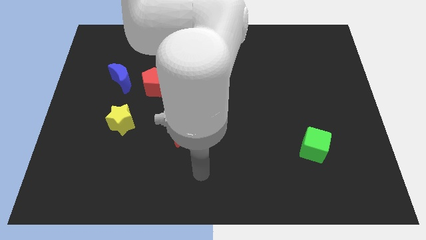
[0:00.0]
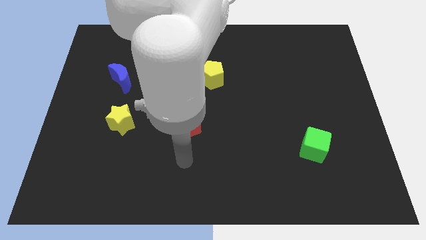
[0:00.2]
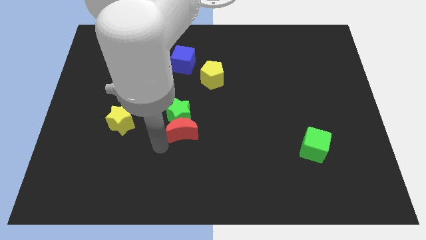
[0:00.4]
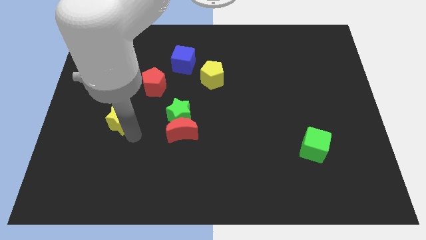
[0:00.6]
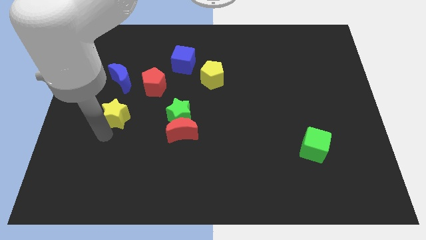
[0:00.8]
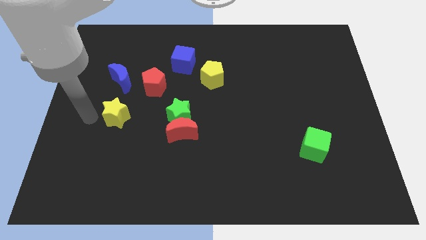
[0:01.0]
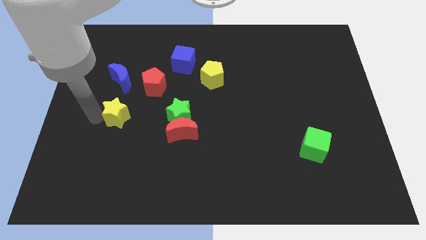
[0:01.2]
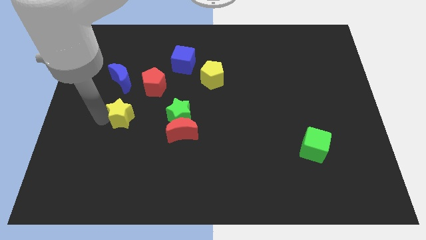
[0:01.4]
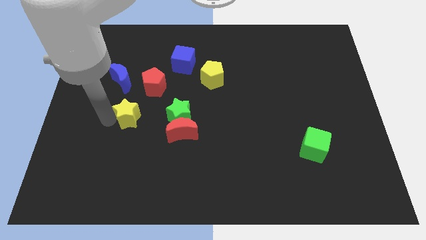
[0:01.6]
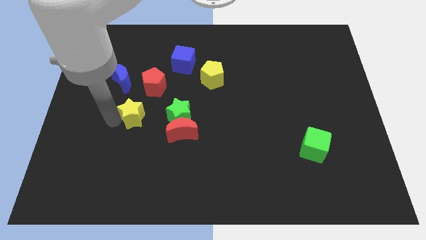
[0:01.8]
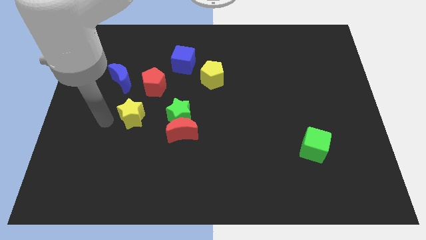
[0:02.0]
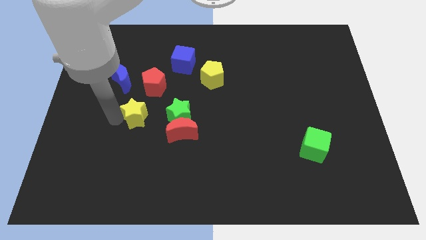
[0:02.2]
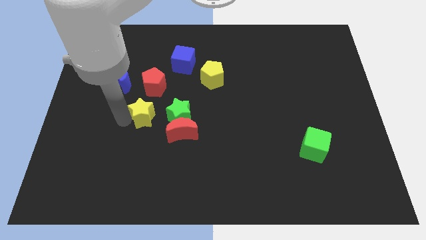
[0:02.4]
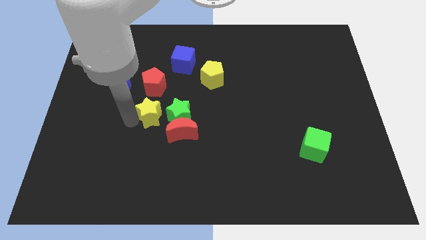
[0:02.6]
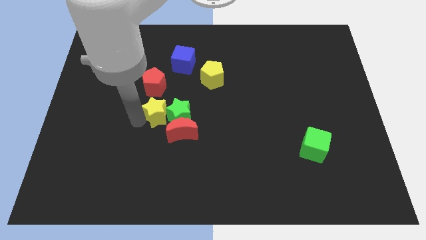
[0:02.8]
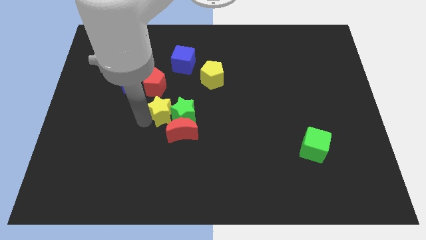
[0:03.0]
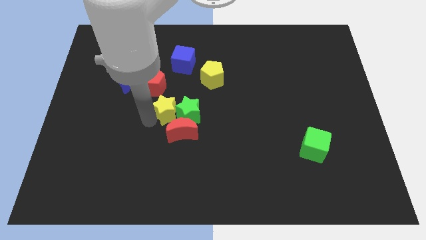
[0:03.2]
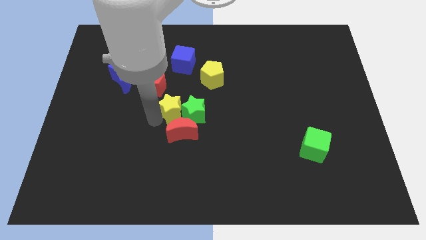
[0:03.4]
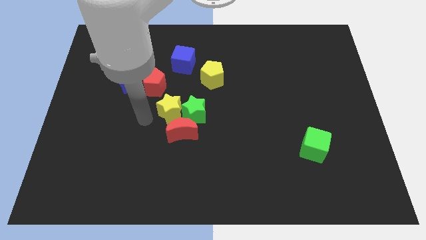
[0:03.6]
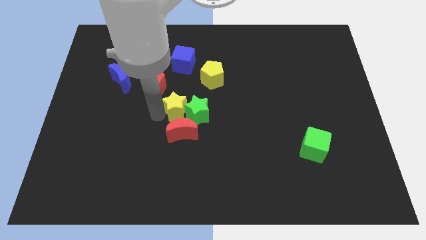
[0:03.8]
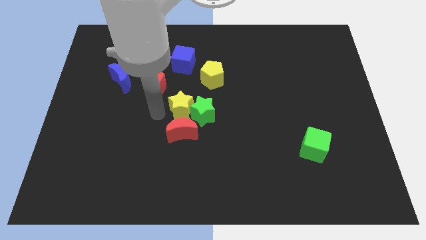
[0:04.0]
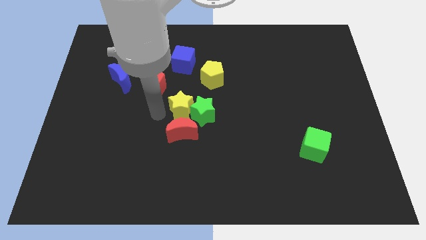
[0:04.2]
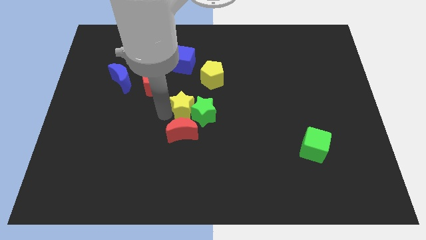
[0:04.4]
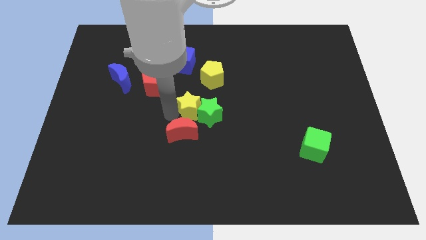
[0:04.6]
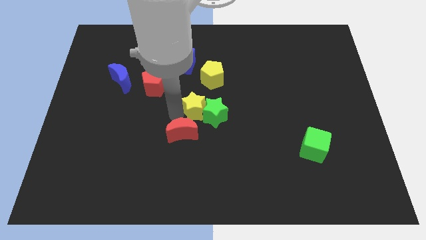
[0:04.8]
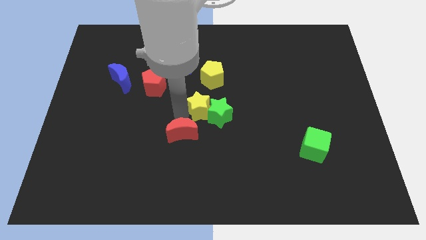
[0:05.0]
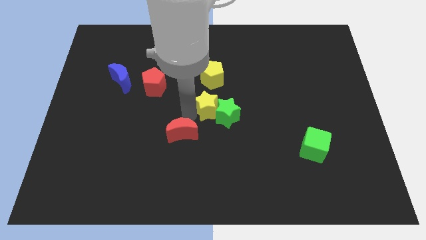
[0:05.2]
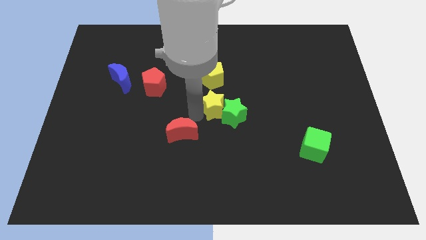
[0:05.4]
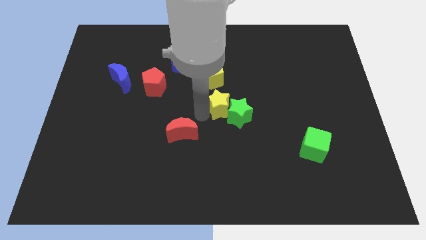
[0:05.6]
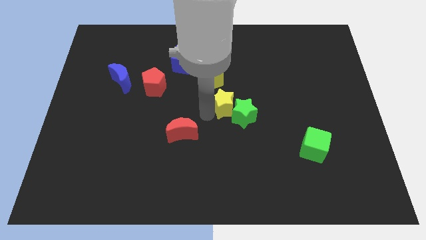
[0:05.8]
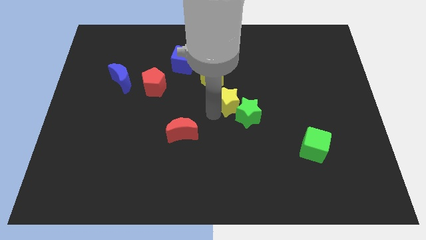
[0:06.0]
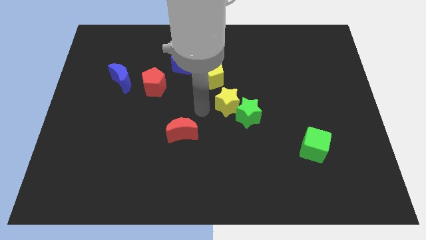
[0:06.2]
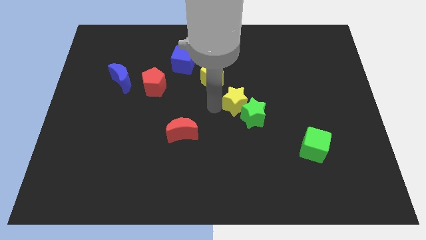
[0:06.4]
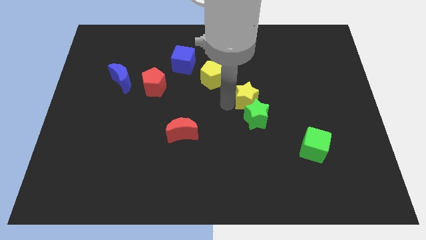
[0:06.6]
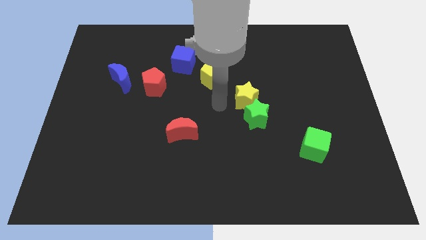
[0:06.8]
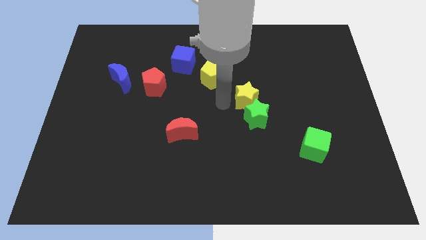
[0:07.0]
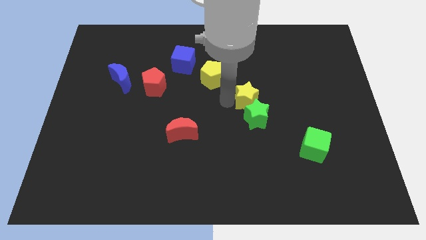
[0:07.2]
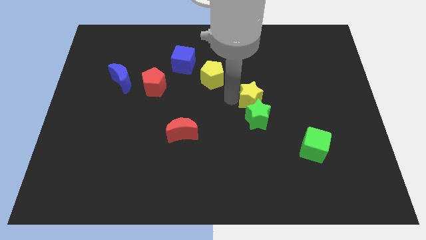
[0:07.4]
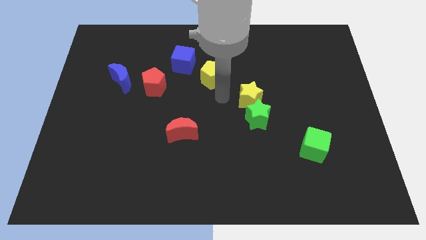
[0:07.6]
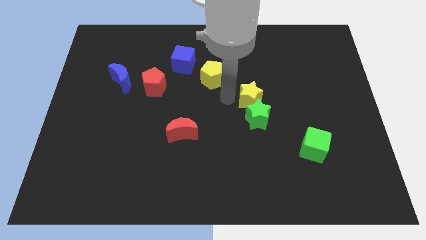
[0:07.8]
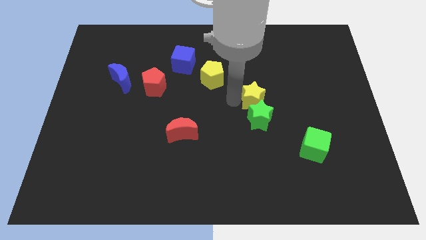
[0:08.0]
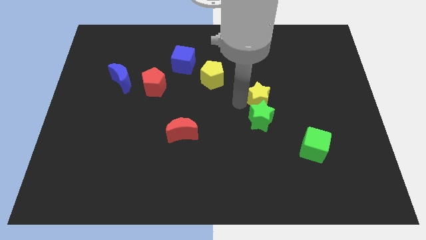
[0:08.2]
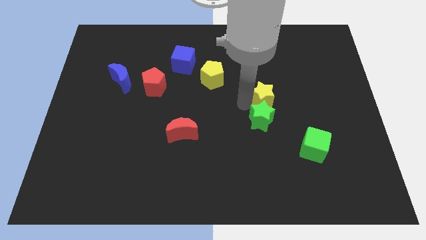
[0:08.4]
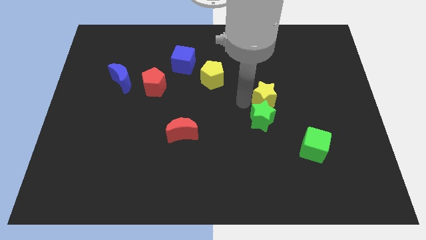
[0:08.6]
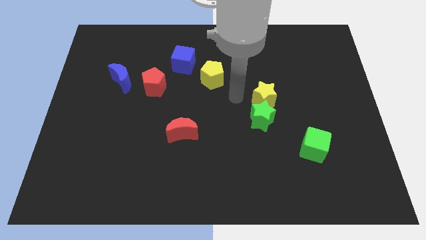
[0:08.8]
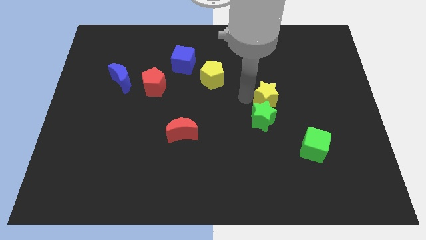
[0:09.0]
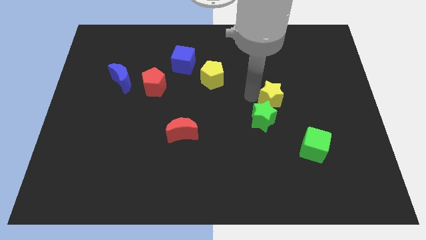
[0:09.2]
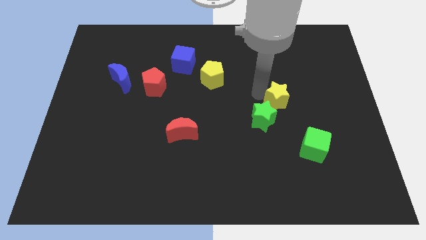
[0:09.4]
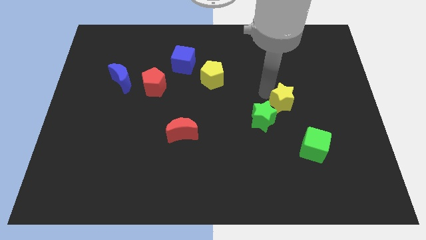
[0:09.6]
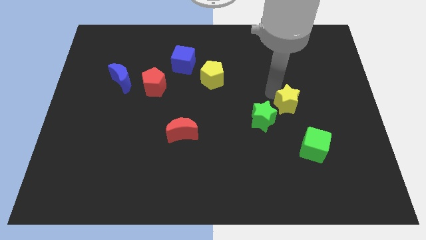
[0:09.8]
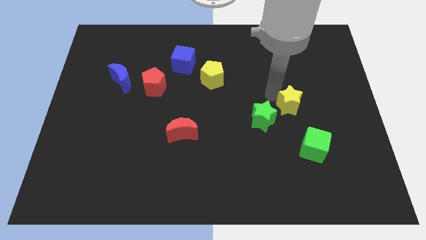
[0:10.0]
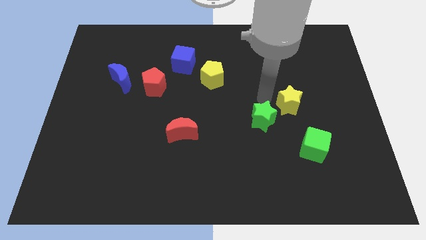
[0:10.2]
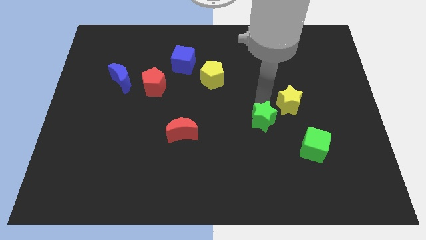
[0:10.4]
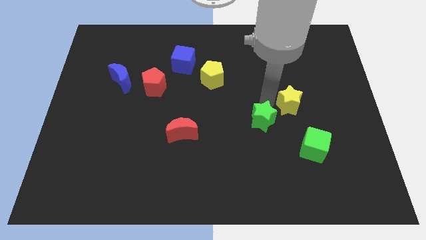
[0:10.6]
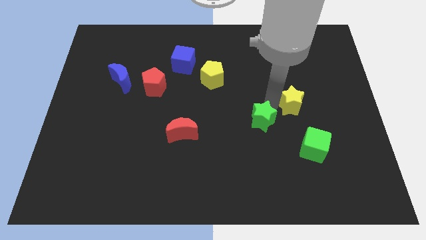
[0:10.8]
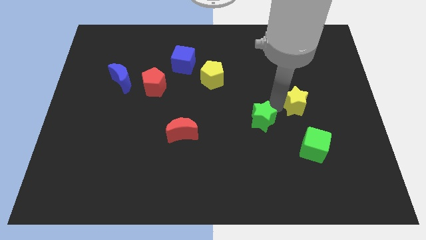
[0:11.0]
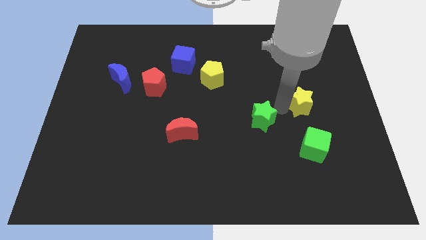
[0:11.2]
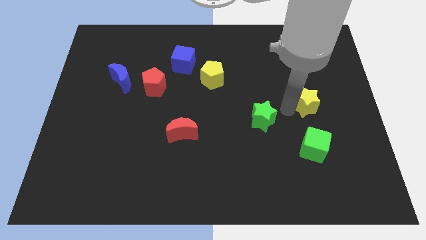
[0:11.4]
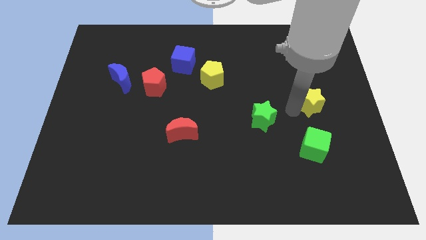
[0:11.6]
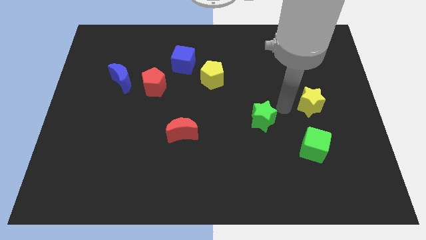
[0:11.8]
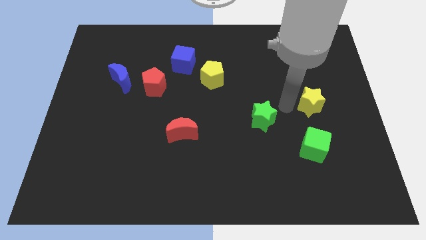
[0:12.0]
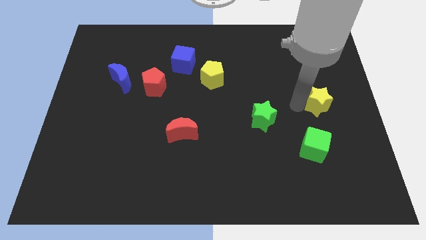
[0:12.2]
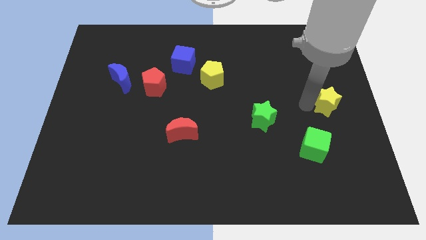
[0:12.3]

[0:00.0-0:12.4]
move the yellow star to the center right

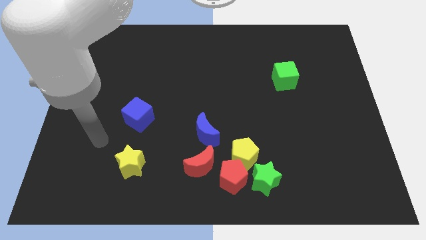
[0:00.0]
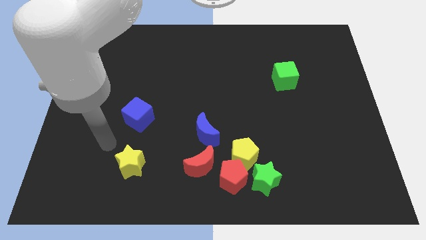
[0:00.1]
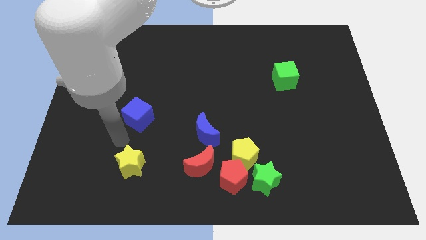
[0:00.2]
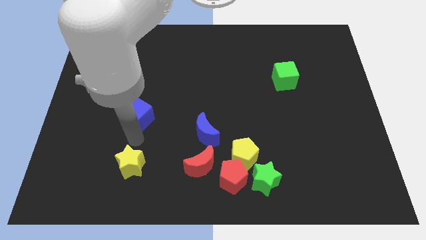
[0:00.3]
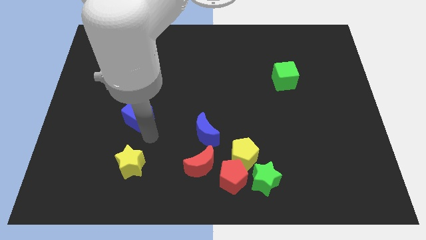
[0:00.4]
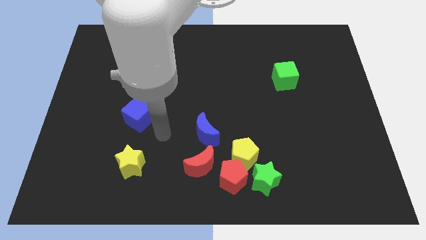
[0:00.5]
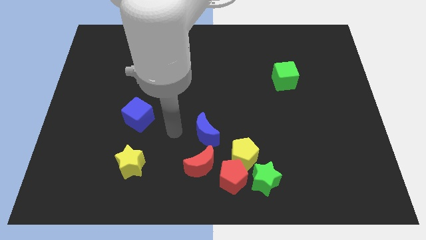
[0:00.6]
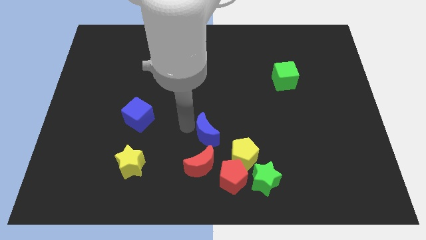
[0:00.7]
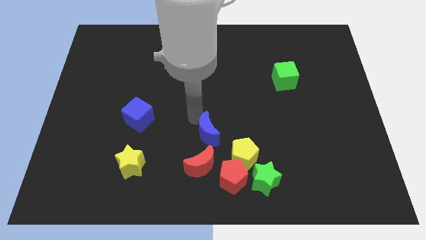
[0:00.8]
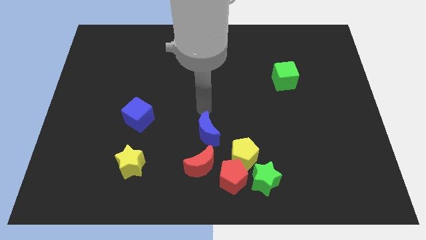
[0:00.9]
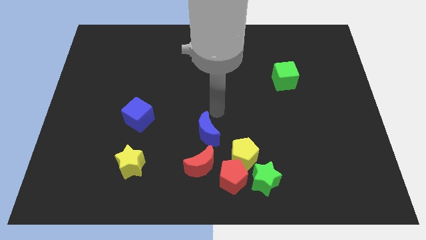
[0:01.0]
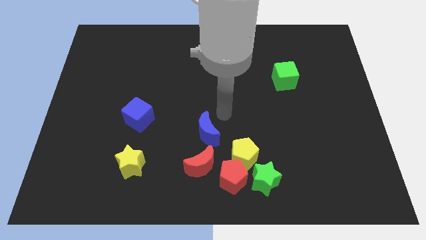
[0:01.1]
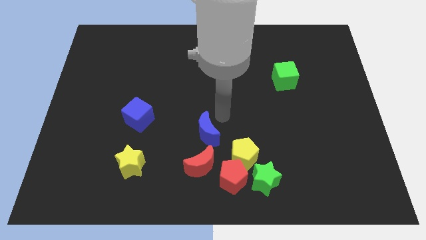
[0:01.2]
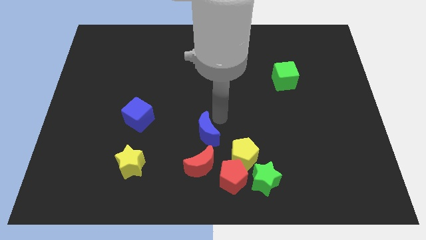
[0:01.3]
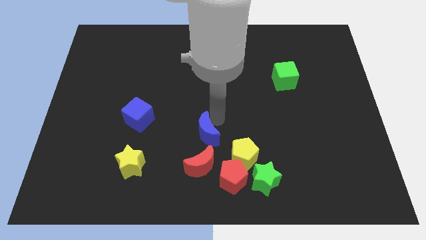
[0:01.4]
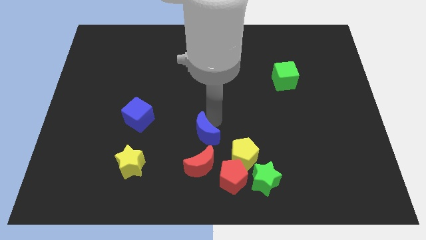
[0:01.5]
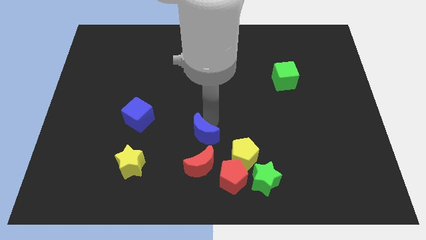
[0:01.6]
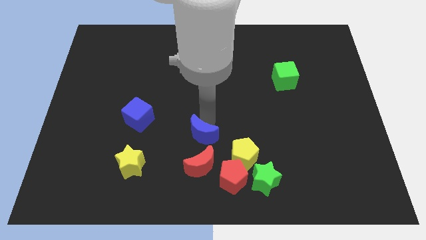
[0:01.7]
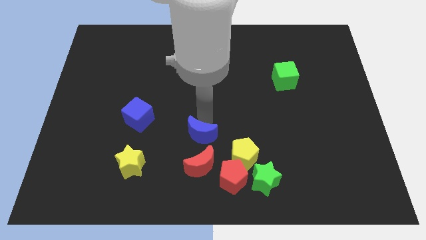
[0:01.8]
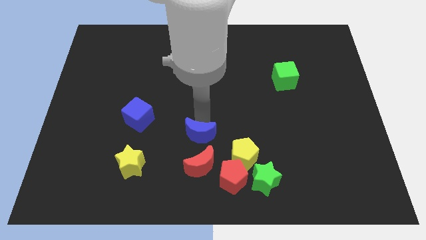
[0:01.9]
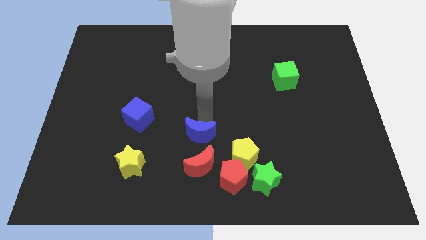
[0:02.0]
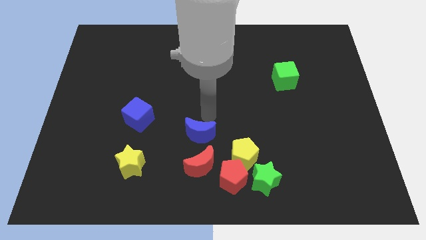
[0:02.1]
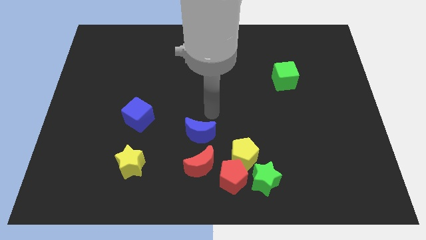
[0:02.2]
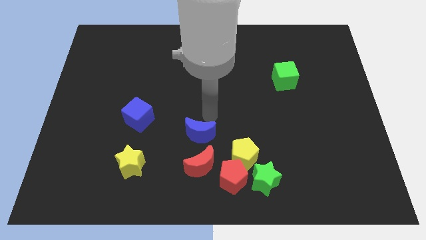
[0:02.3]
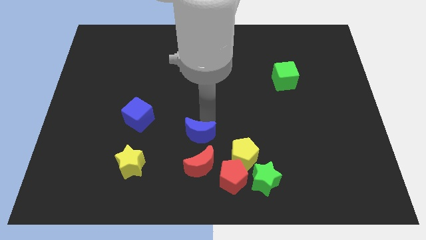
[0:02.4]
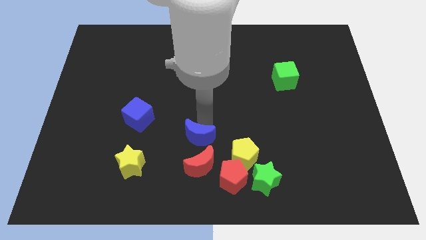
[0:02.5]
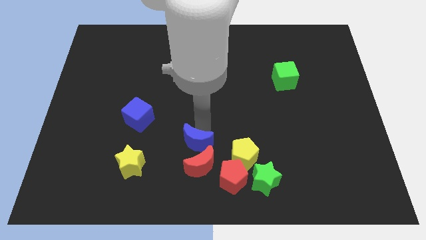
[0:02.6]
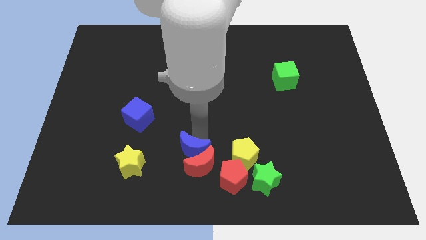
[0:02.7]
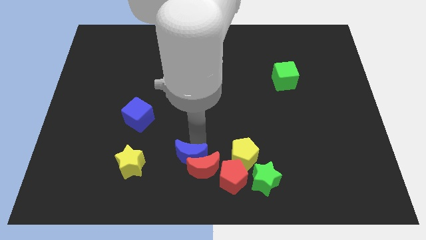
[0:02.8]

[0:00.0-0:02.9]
push the blue moon to the bottom side
